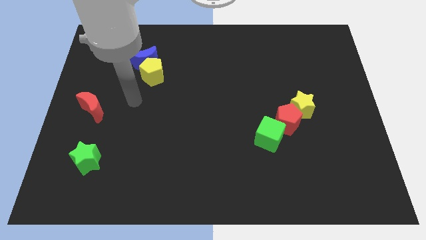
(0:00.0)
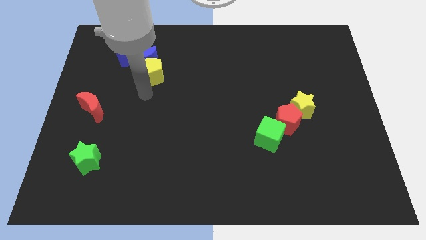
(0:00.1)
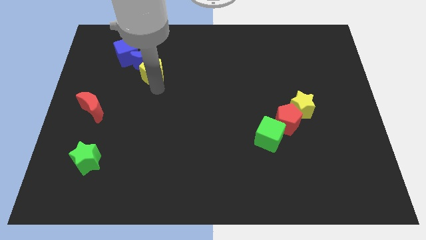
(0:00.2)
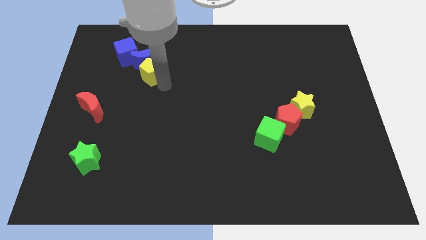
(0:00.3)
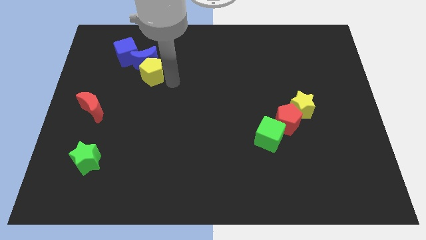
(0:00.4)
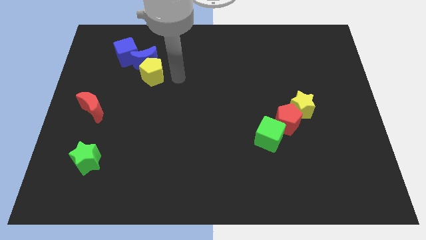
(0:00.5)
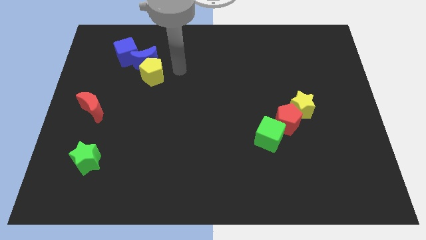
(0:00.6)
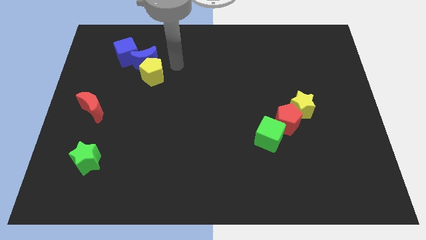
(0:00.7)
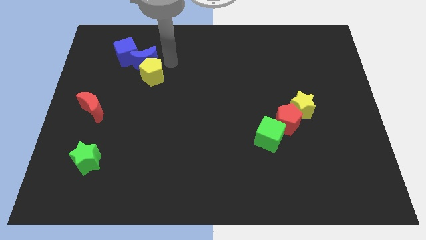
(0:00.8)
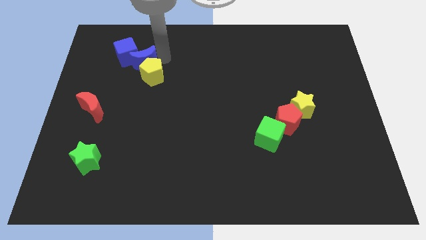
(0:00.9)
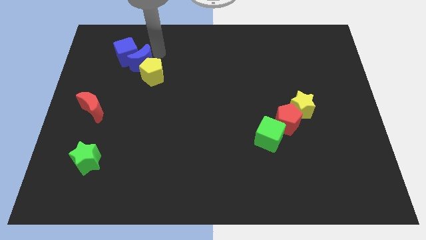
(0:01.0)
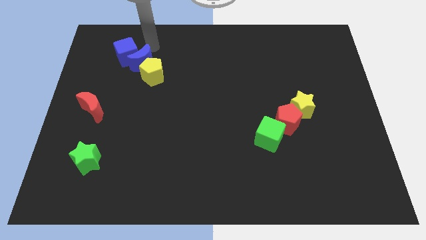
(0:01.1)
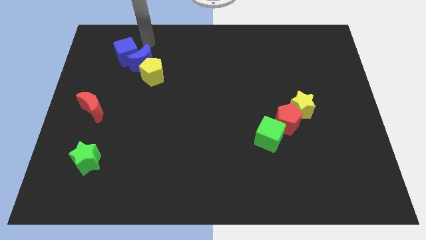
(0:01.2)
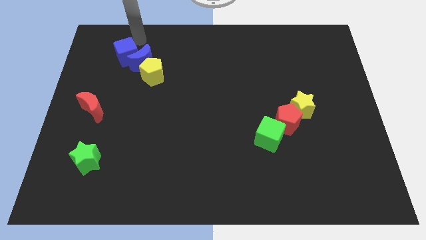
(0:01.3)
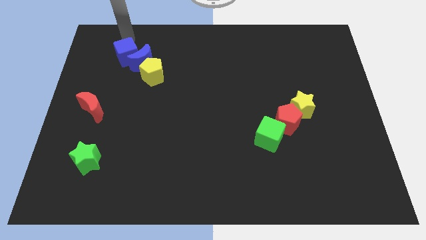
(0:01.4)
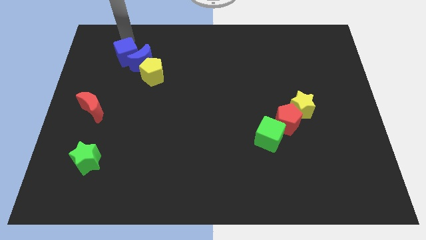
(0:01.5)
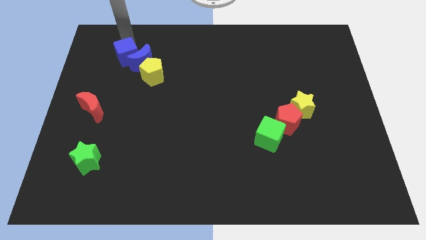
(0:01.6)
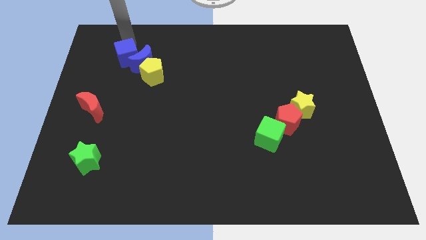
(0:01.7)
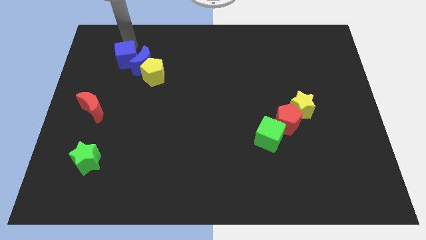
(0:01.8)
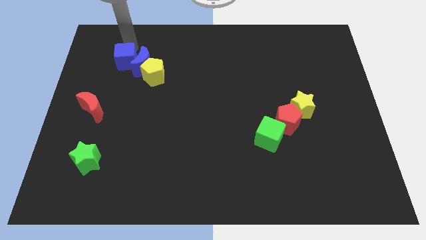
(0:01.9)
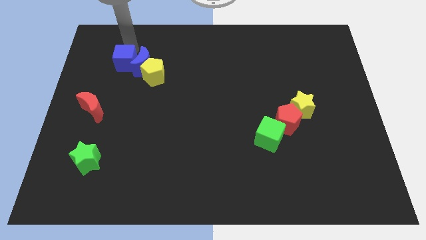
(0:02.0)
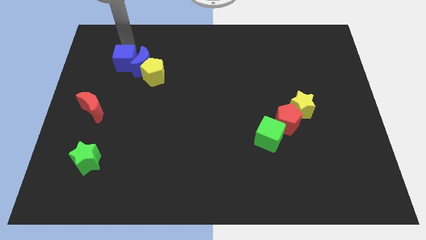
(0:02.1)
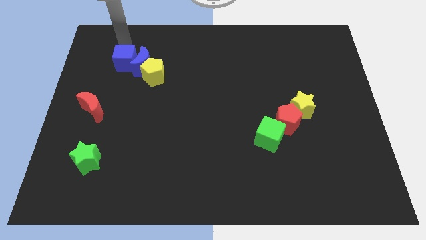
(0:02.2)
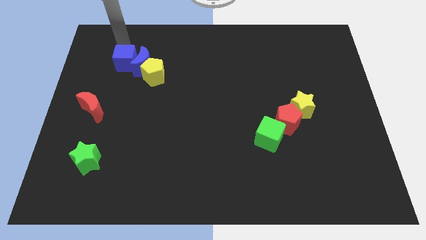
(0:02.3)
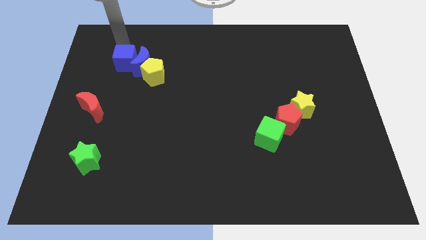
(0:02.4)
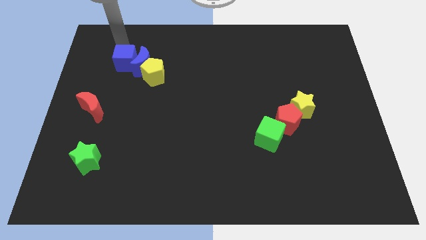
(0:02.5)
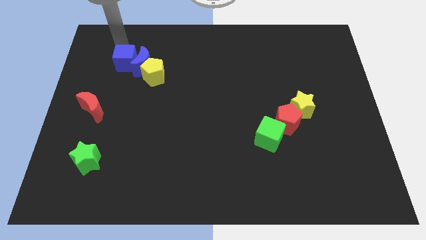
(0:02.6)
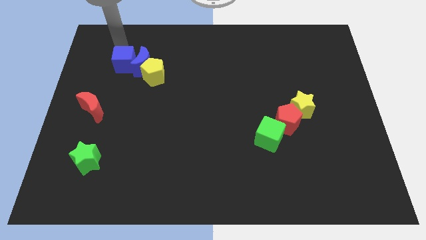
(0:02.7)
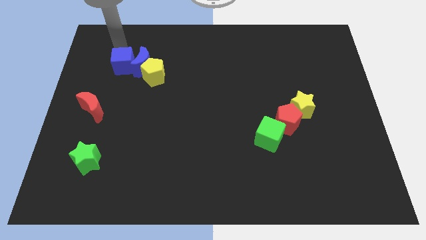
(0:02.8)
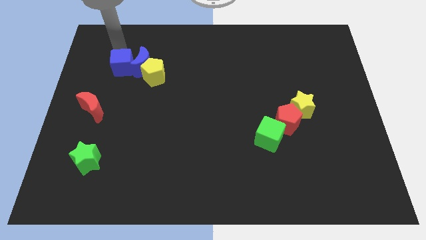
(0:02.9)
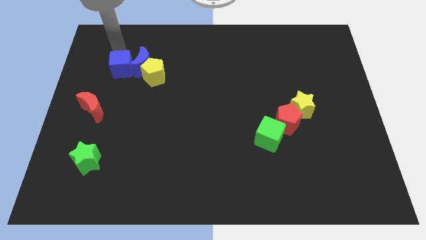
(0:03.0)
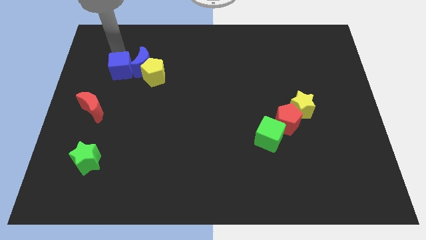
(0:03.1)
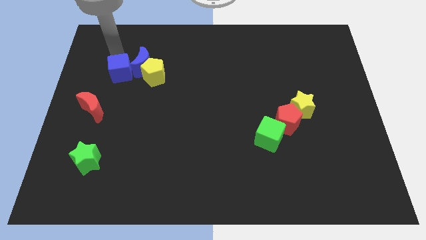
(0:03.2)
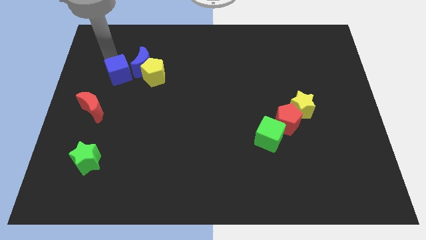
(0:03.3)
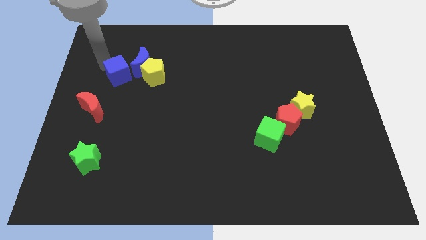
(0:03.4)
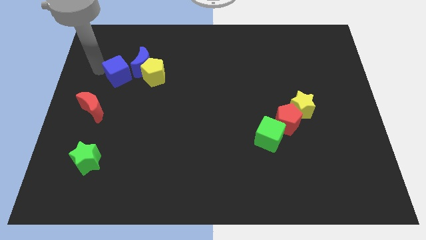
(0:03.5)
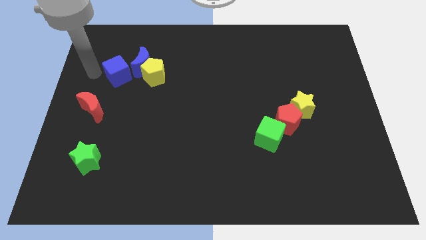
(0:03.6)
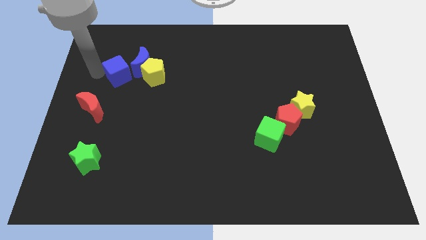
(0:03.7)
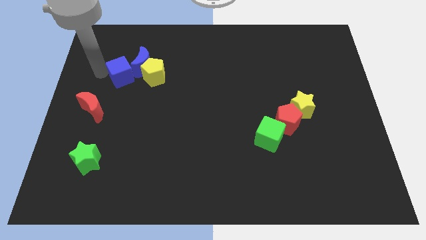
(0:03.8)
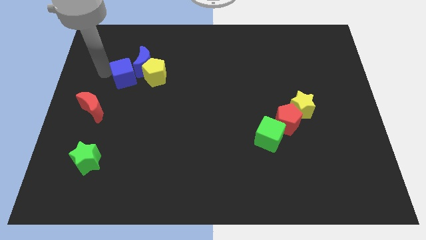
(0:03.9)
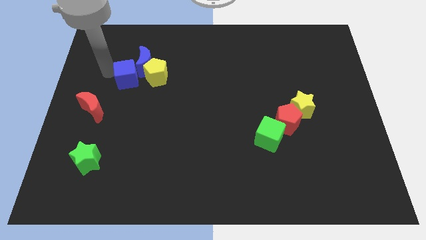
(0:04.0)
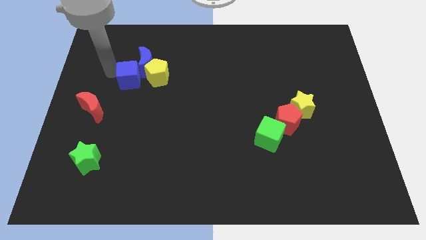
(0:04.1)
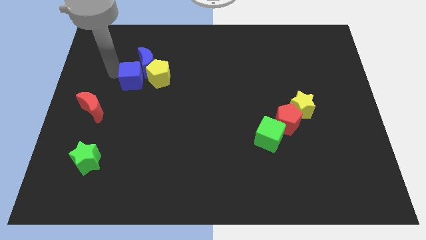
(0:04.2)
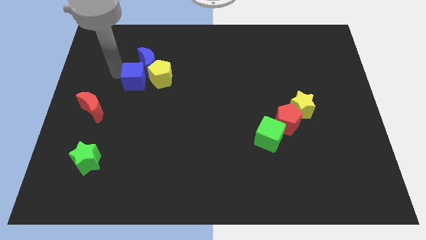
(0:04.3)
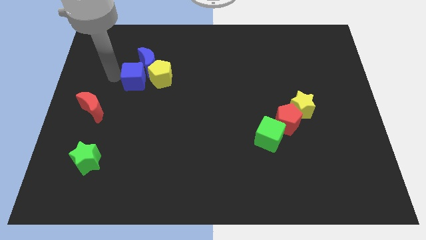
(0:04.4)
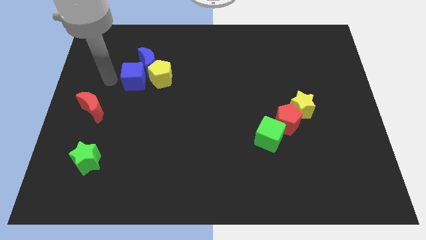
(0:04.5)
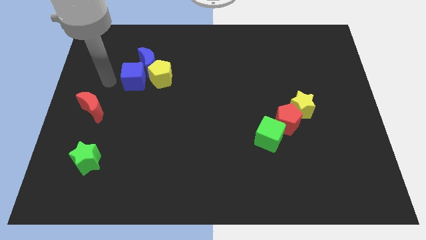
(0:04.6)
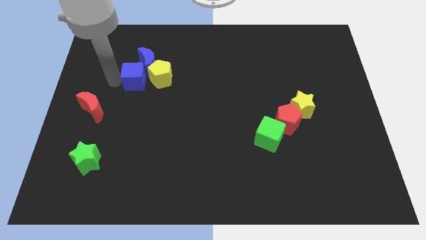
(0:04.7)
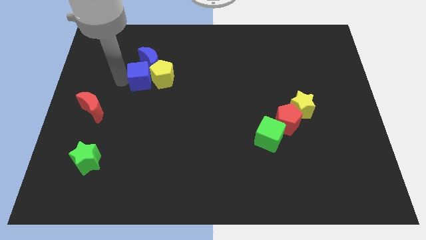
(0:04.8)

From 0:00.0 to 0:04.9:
put the blue cube to the yellow pentagon

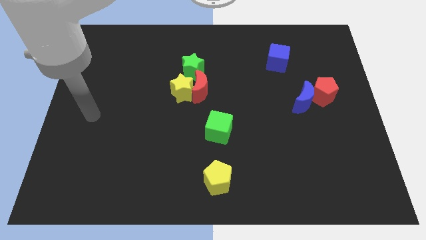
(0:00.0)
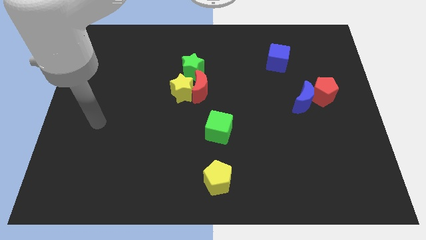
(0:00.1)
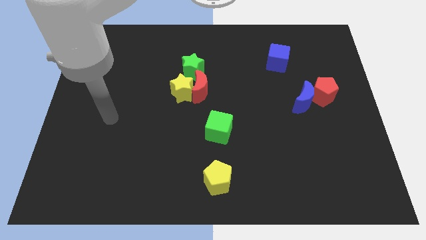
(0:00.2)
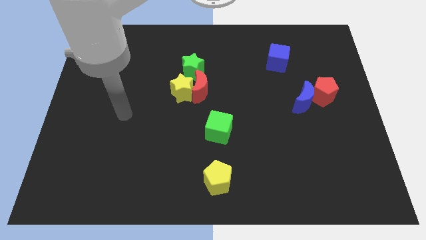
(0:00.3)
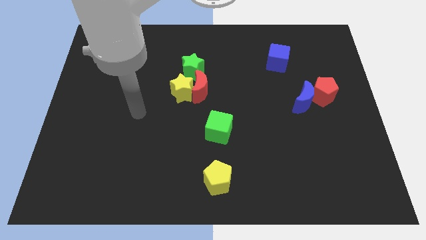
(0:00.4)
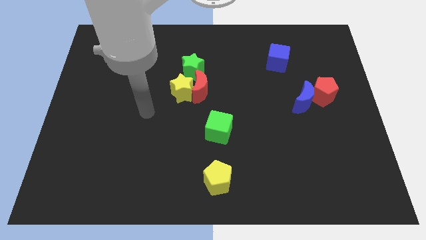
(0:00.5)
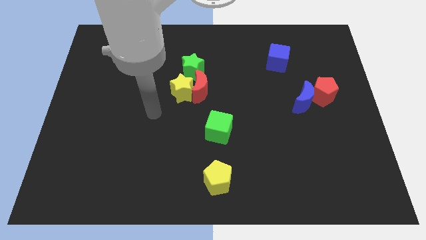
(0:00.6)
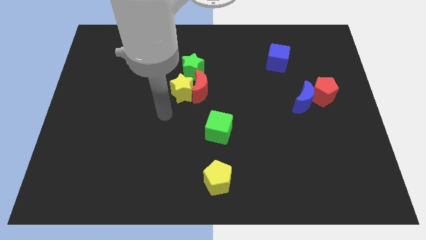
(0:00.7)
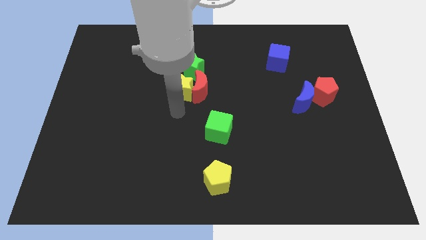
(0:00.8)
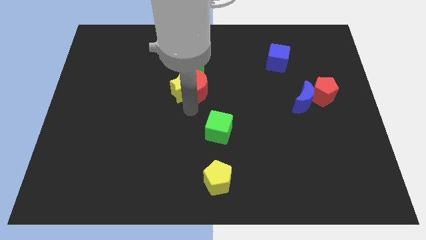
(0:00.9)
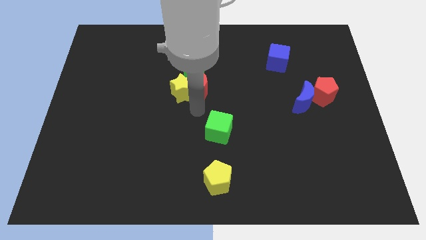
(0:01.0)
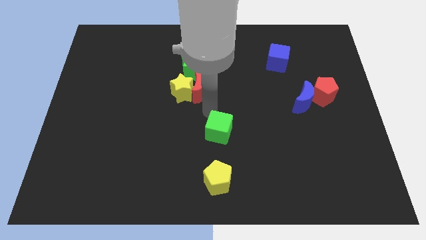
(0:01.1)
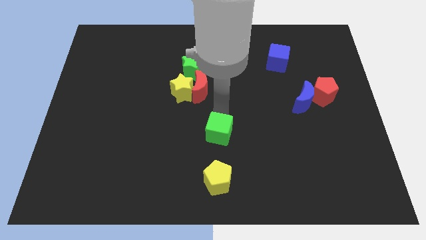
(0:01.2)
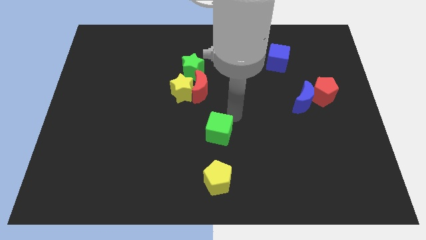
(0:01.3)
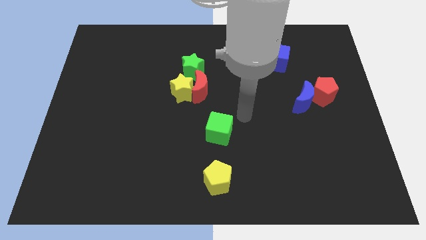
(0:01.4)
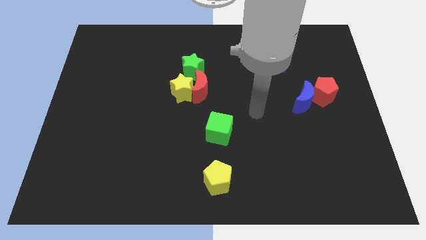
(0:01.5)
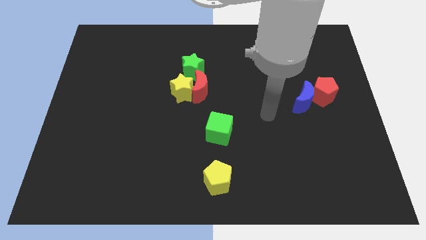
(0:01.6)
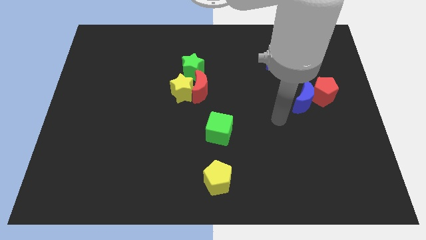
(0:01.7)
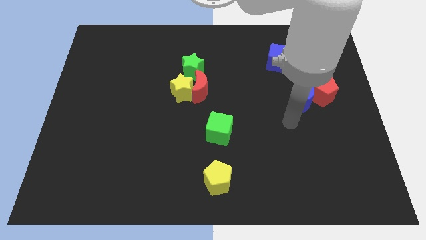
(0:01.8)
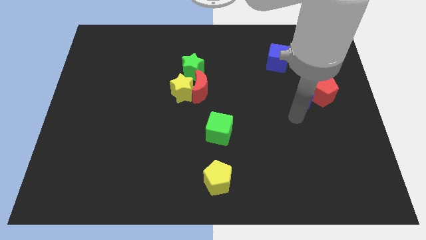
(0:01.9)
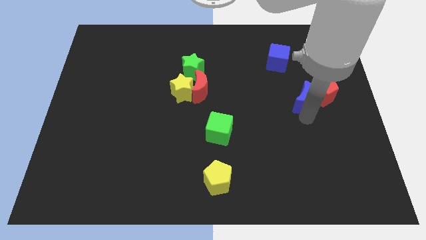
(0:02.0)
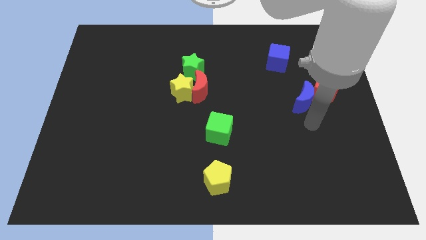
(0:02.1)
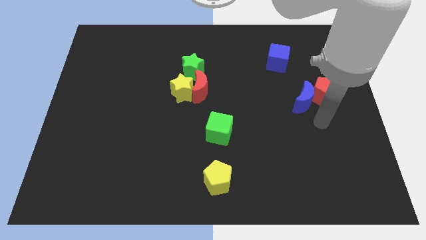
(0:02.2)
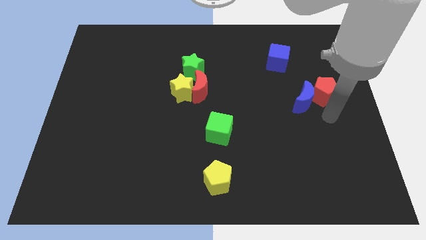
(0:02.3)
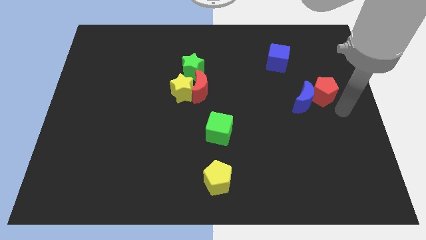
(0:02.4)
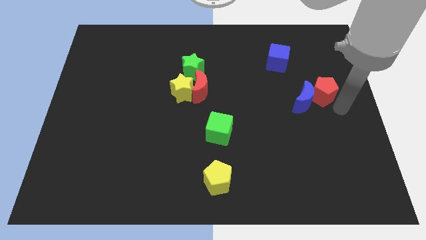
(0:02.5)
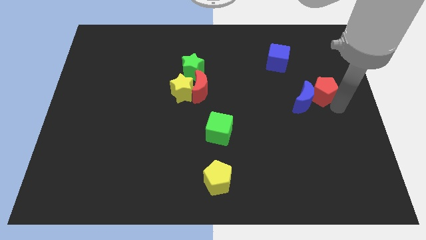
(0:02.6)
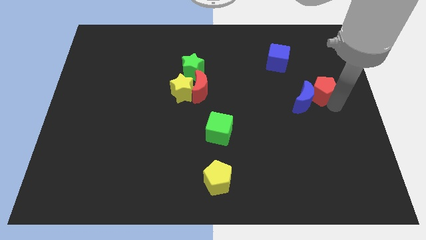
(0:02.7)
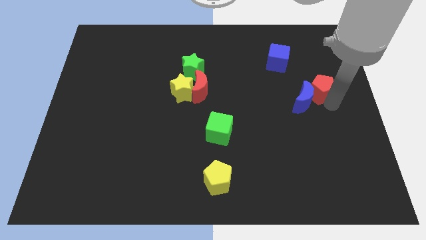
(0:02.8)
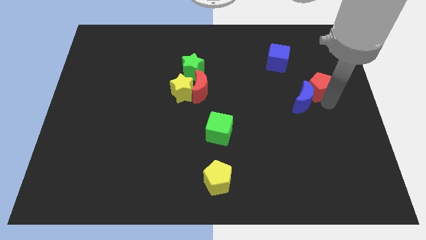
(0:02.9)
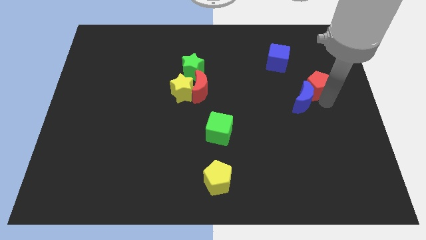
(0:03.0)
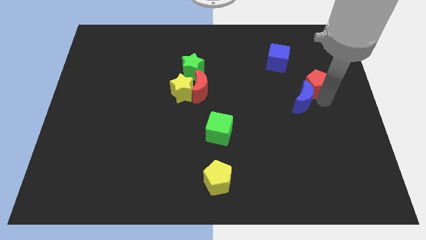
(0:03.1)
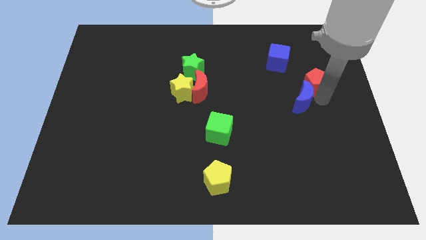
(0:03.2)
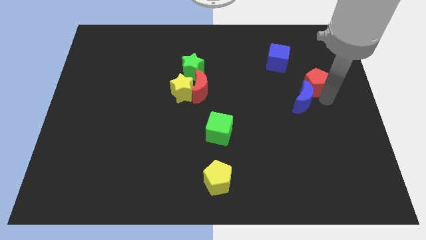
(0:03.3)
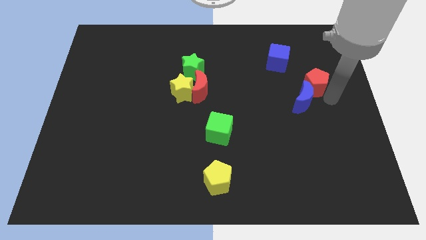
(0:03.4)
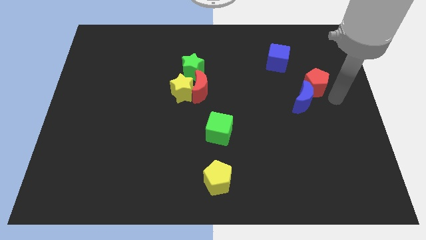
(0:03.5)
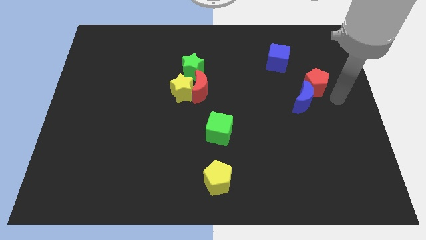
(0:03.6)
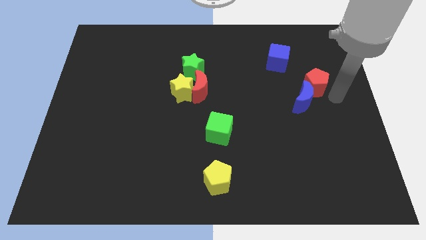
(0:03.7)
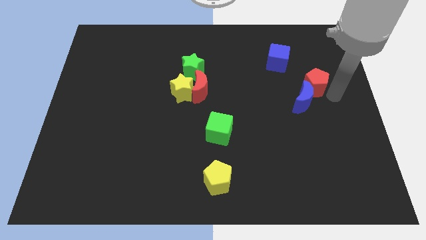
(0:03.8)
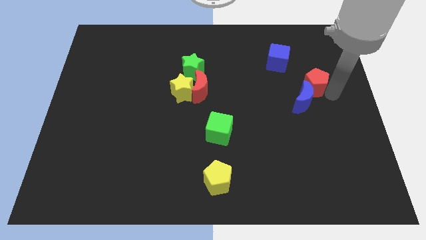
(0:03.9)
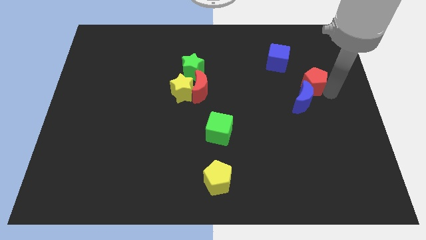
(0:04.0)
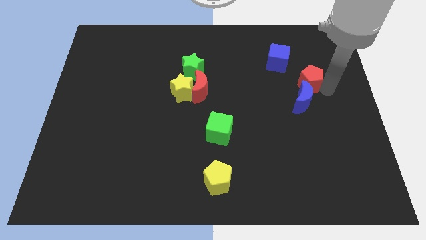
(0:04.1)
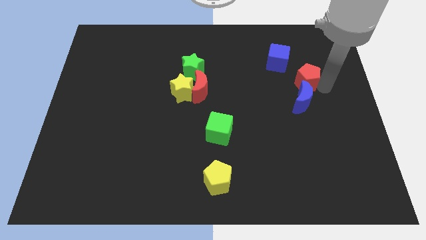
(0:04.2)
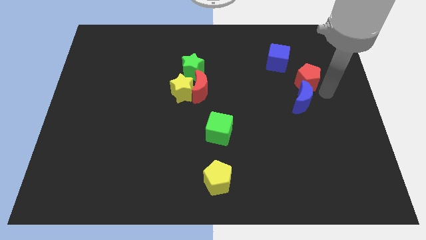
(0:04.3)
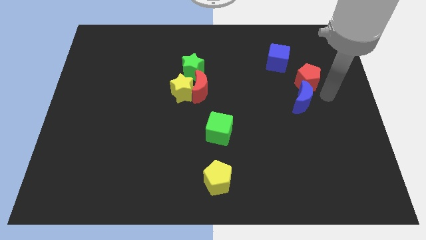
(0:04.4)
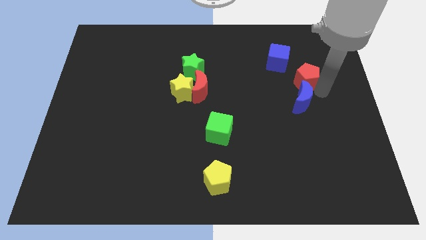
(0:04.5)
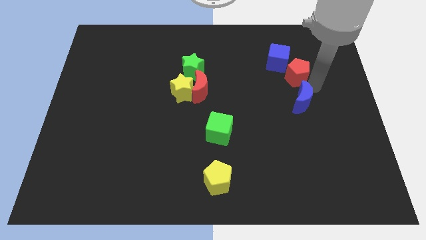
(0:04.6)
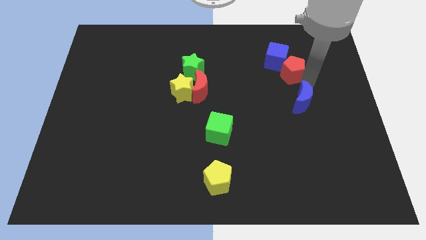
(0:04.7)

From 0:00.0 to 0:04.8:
put the red pentagon close to the blue cube
